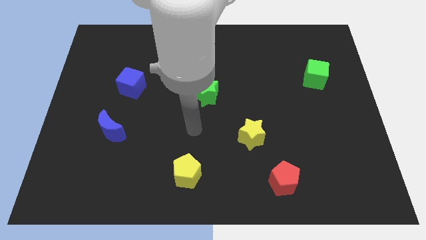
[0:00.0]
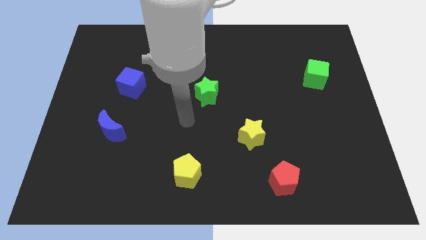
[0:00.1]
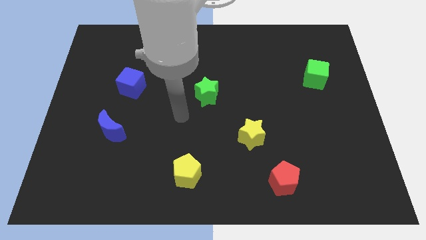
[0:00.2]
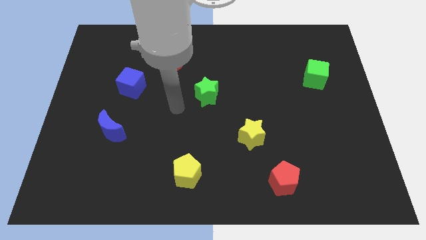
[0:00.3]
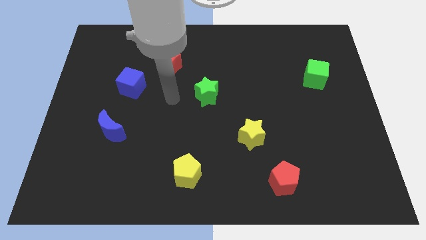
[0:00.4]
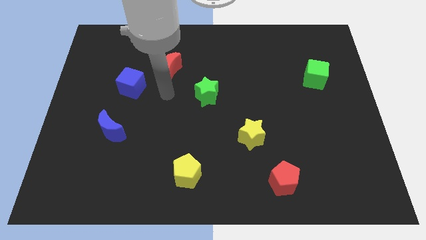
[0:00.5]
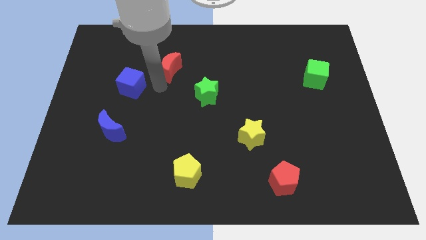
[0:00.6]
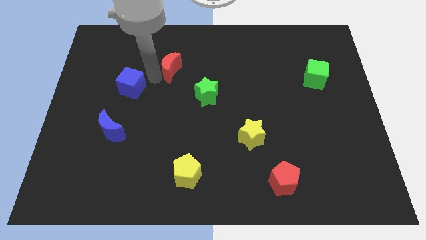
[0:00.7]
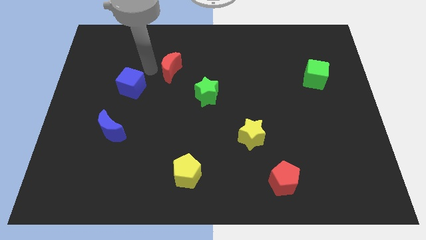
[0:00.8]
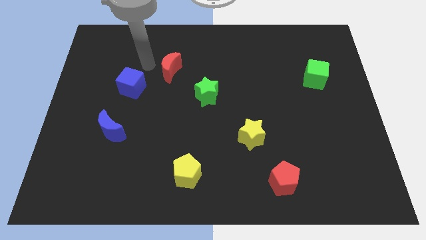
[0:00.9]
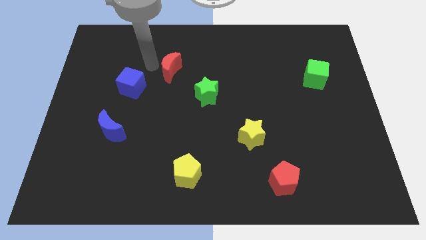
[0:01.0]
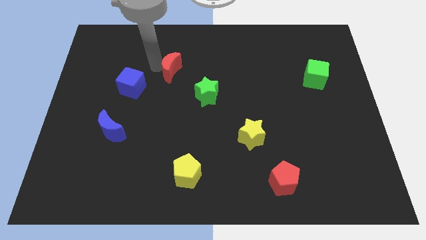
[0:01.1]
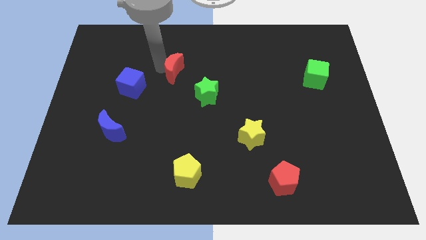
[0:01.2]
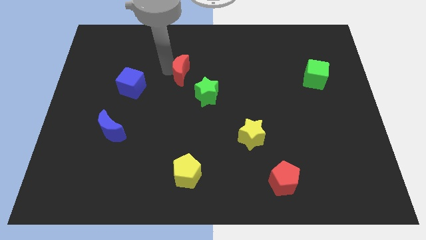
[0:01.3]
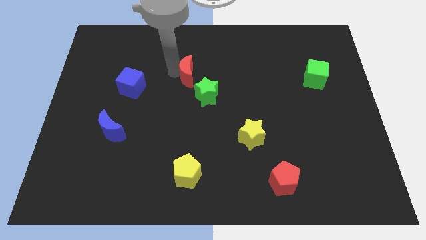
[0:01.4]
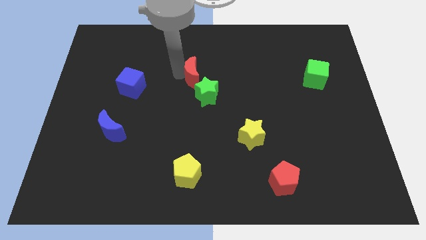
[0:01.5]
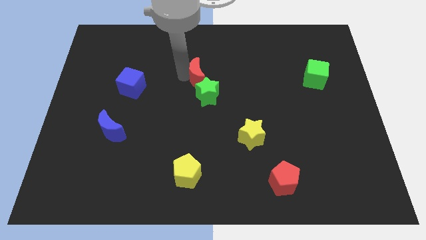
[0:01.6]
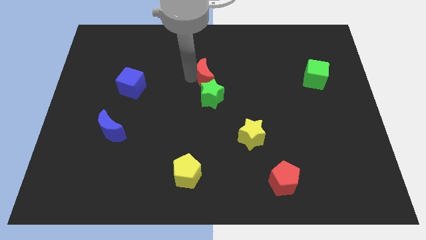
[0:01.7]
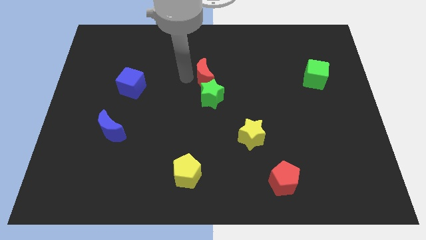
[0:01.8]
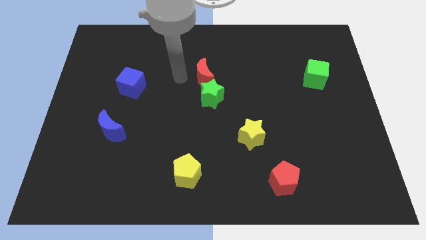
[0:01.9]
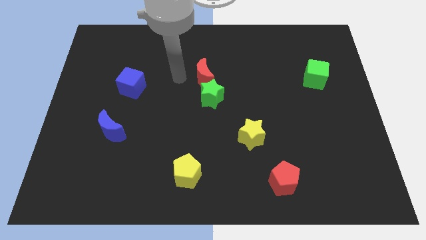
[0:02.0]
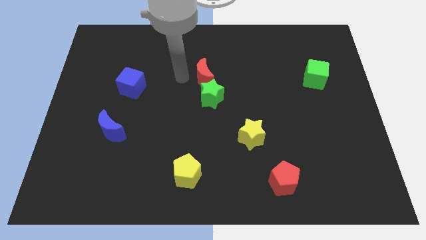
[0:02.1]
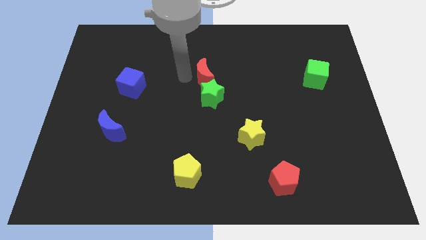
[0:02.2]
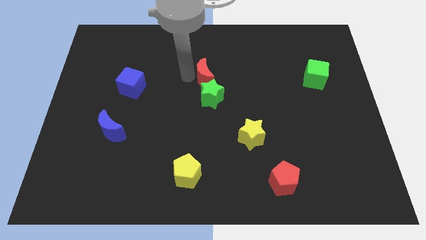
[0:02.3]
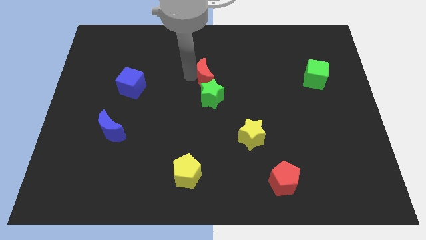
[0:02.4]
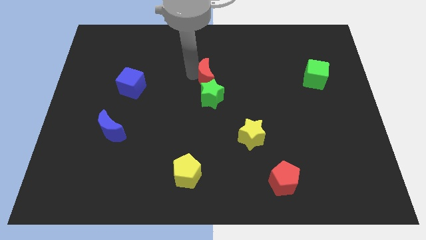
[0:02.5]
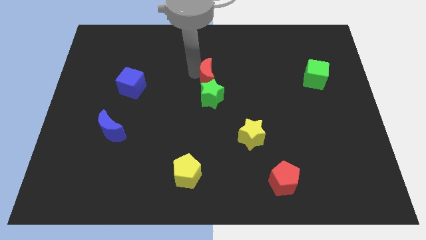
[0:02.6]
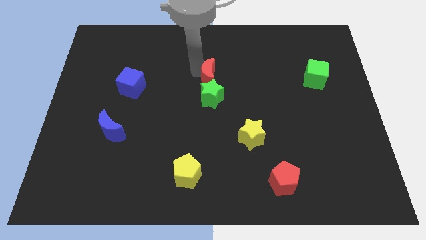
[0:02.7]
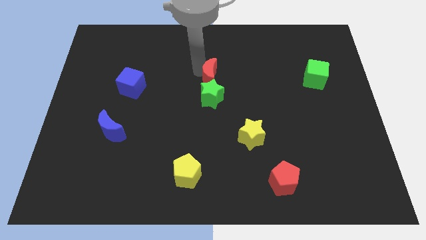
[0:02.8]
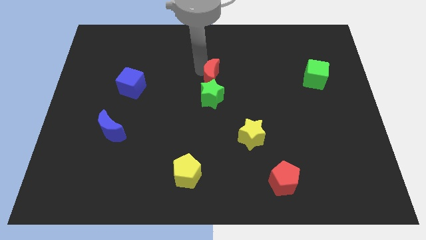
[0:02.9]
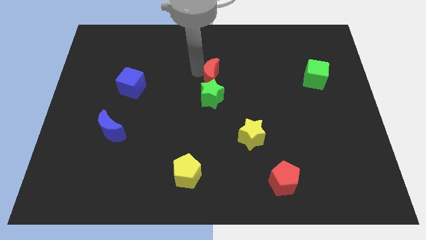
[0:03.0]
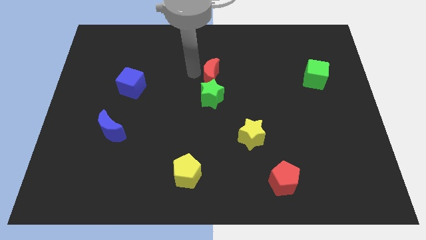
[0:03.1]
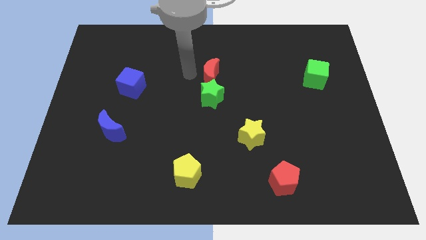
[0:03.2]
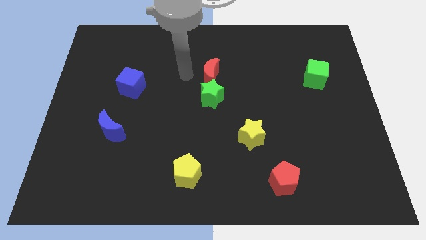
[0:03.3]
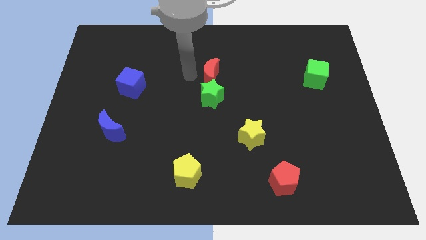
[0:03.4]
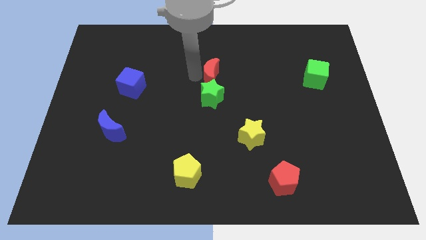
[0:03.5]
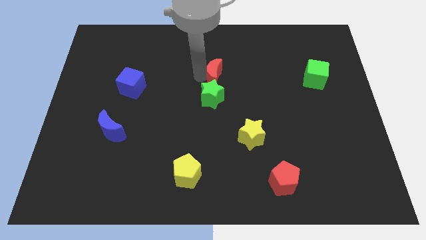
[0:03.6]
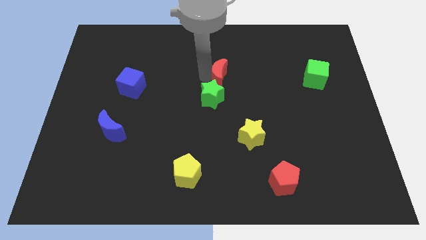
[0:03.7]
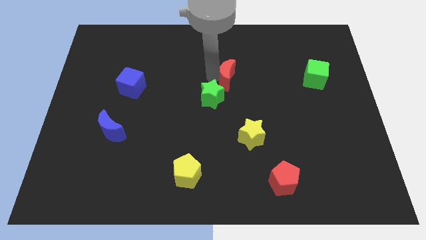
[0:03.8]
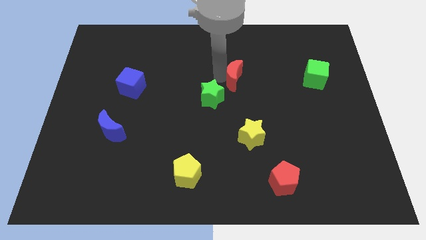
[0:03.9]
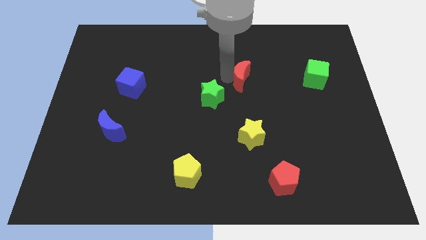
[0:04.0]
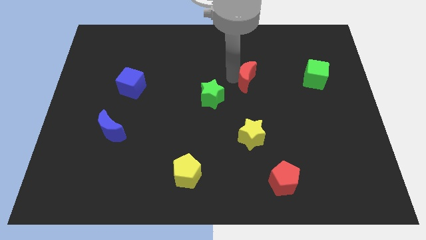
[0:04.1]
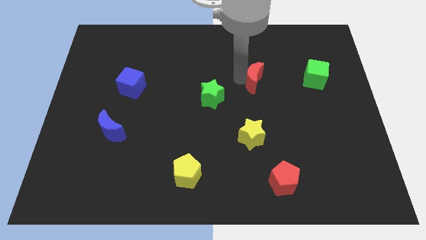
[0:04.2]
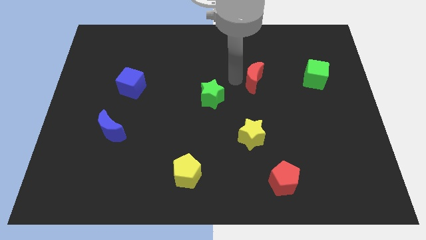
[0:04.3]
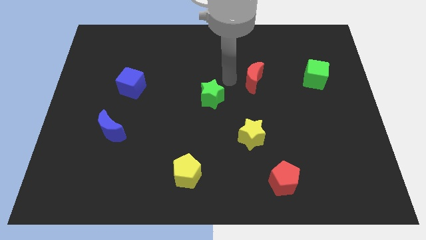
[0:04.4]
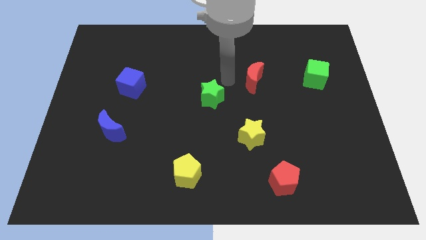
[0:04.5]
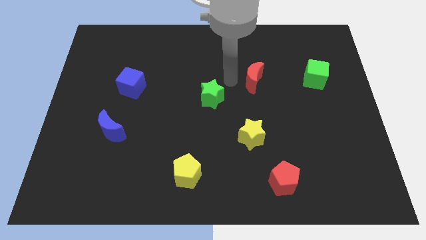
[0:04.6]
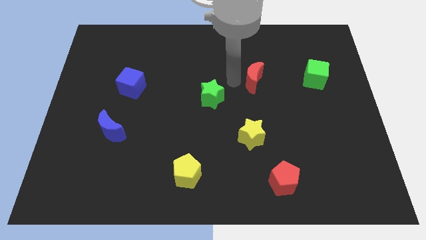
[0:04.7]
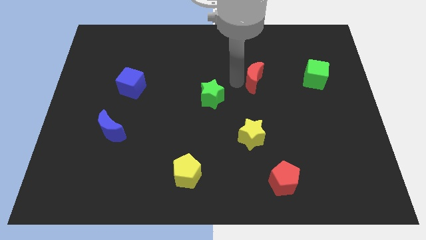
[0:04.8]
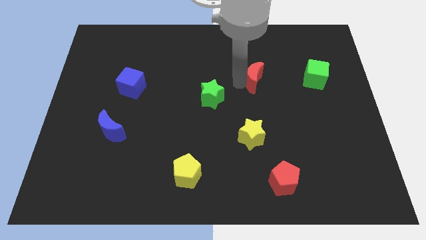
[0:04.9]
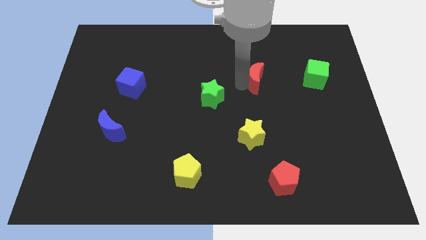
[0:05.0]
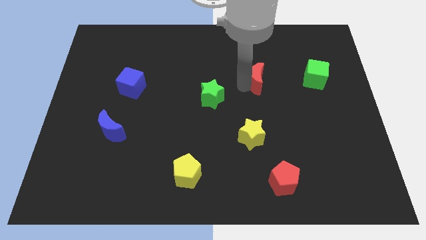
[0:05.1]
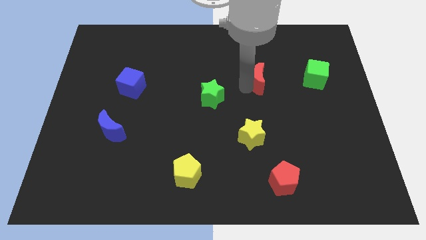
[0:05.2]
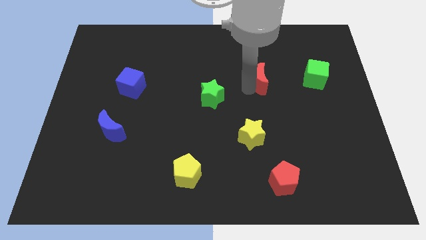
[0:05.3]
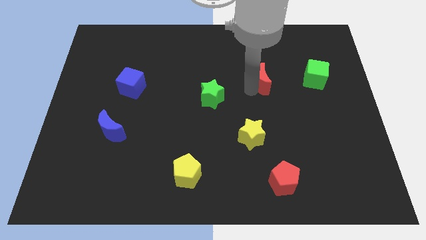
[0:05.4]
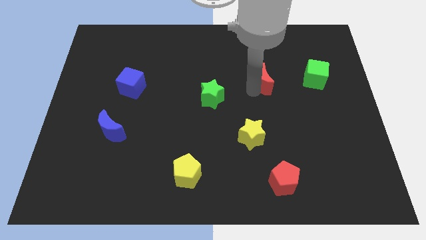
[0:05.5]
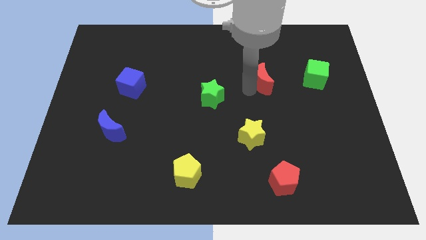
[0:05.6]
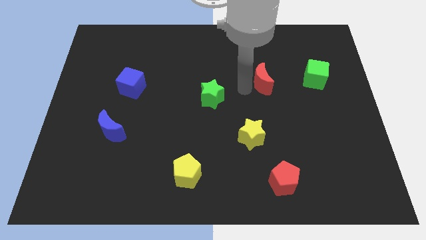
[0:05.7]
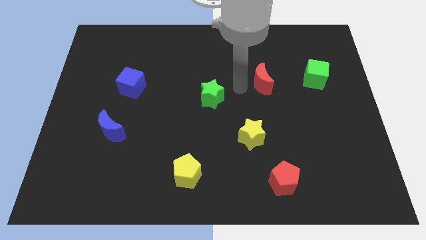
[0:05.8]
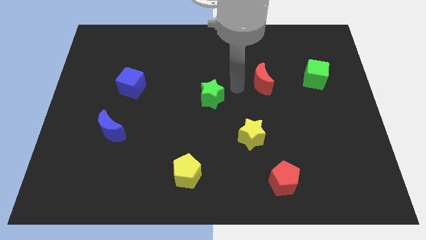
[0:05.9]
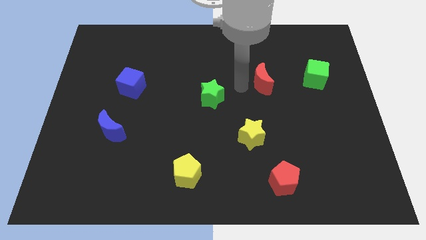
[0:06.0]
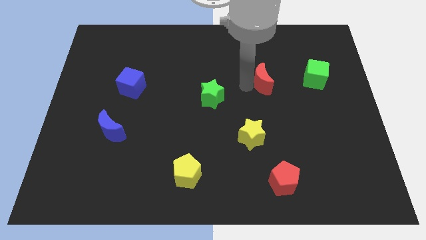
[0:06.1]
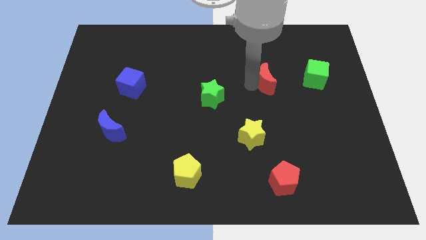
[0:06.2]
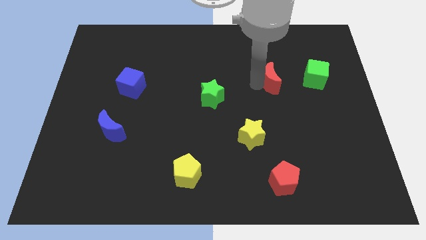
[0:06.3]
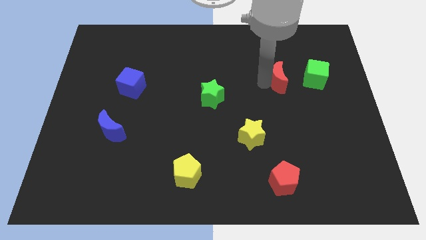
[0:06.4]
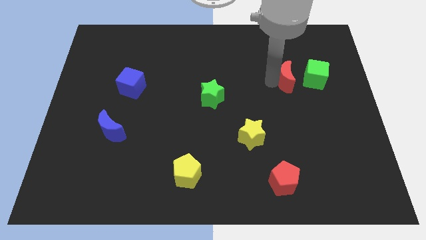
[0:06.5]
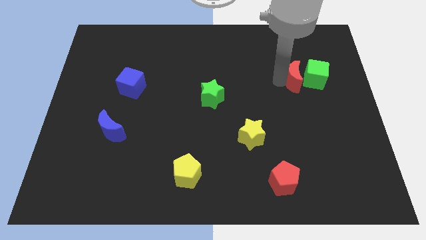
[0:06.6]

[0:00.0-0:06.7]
slide the red moon next to the green cube

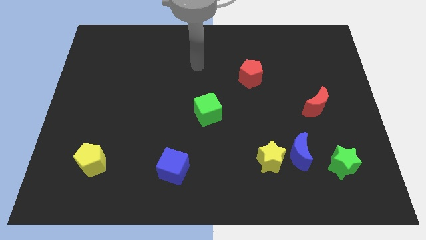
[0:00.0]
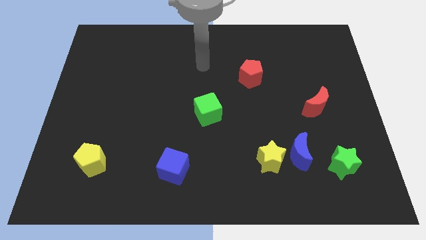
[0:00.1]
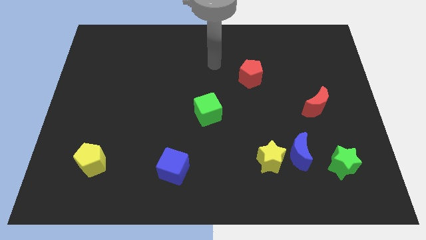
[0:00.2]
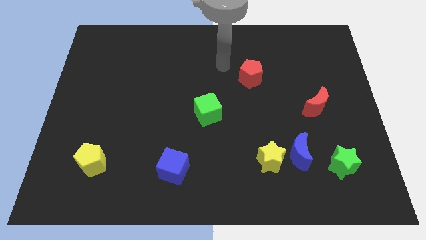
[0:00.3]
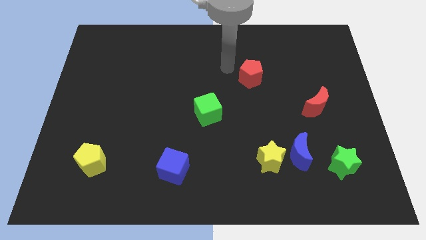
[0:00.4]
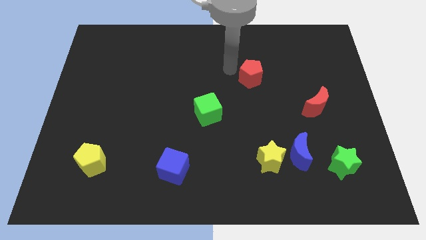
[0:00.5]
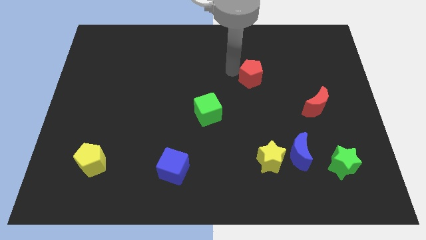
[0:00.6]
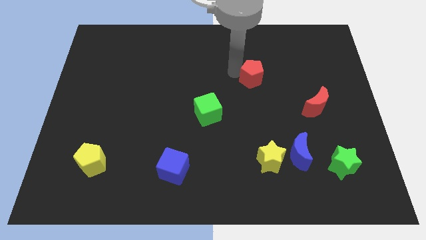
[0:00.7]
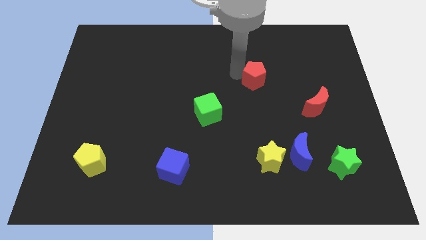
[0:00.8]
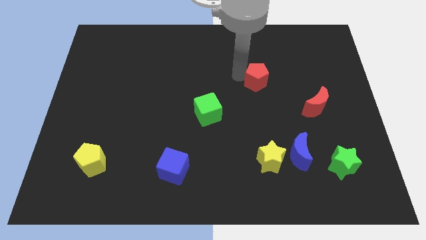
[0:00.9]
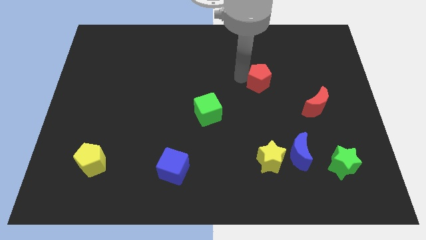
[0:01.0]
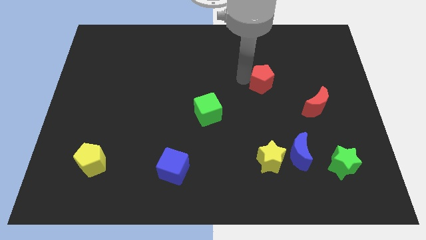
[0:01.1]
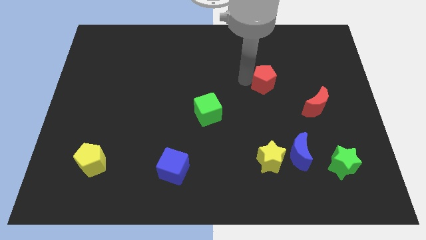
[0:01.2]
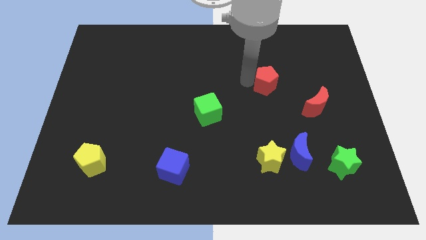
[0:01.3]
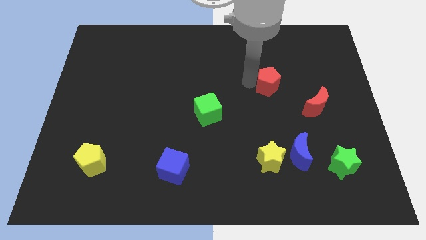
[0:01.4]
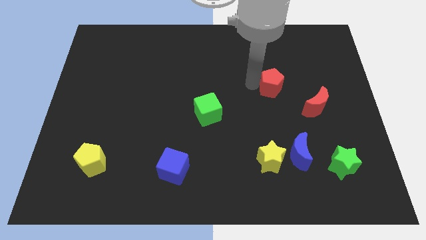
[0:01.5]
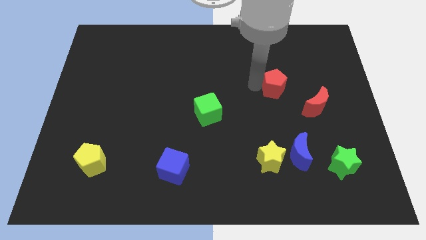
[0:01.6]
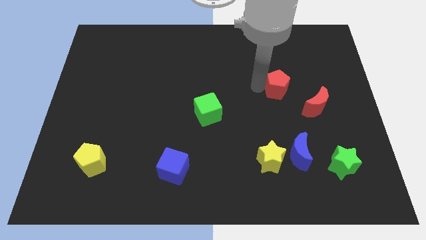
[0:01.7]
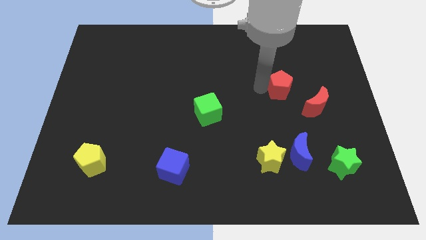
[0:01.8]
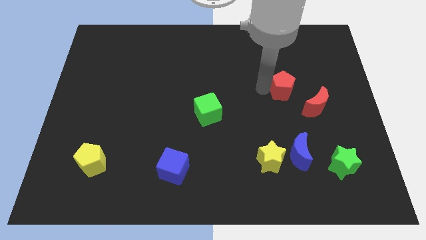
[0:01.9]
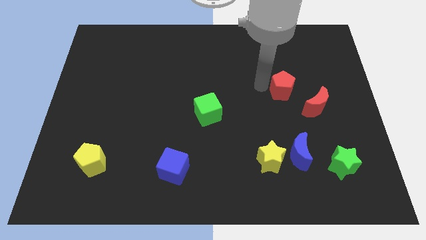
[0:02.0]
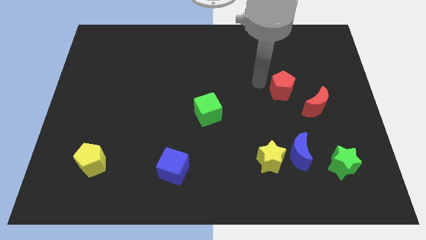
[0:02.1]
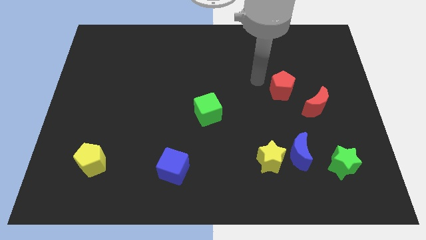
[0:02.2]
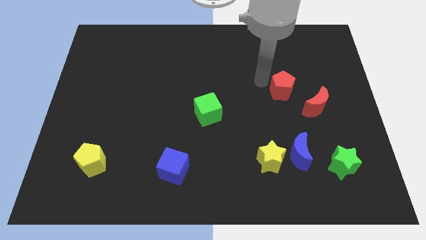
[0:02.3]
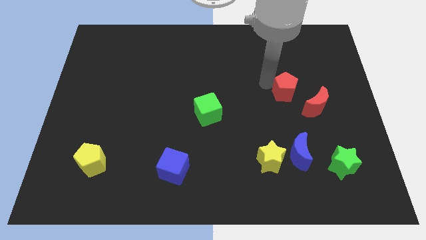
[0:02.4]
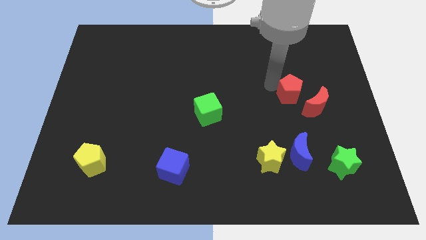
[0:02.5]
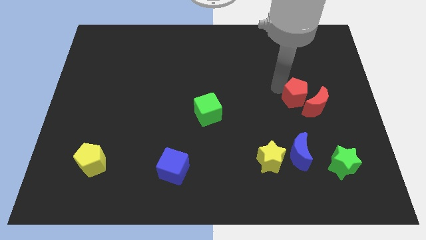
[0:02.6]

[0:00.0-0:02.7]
put the red pentagon close to the red moon
